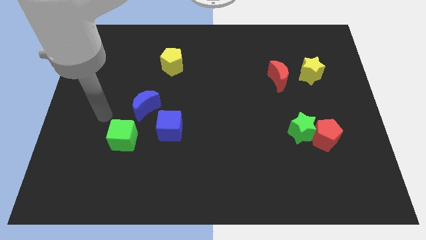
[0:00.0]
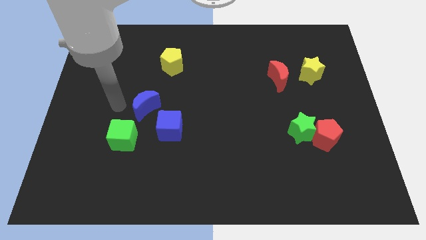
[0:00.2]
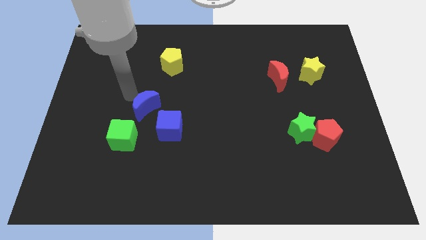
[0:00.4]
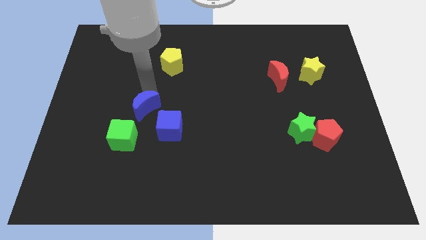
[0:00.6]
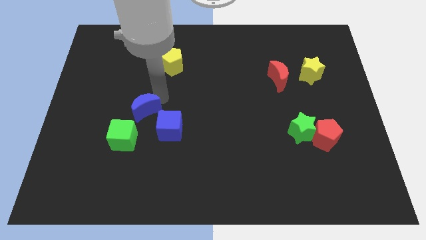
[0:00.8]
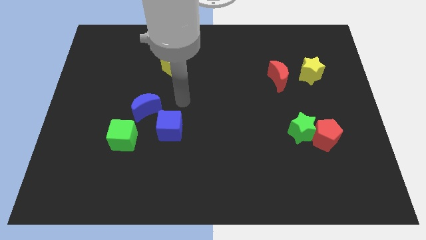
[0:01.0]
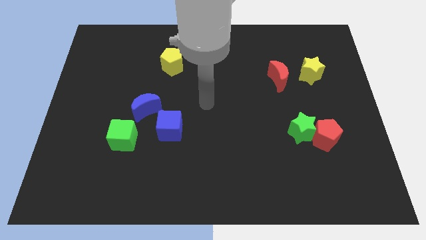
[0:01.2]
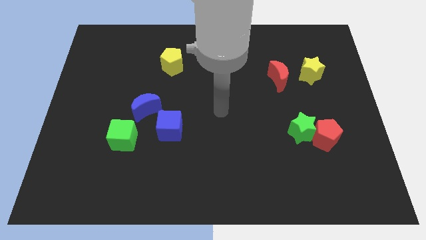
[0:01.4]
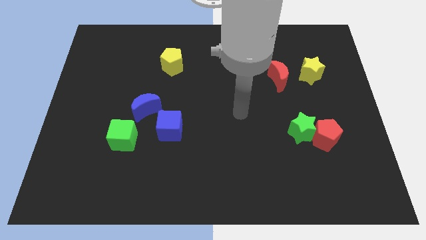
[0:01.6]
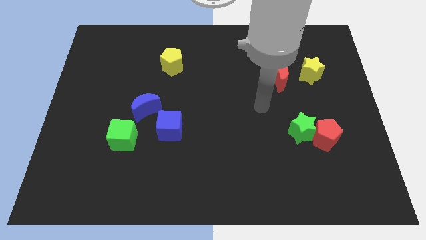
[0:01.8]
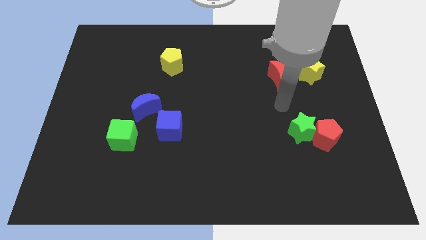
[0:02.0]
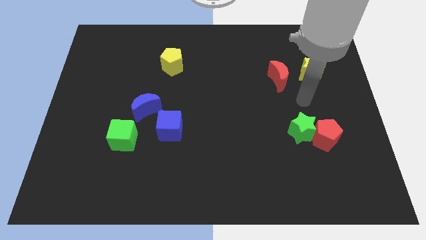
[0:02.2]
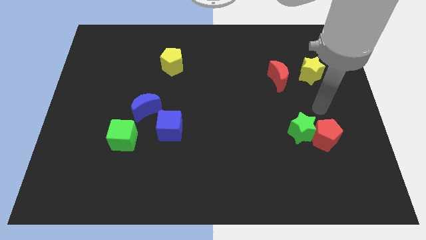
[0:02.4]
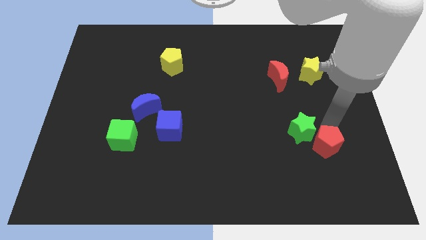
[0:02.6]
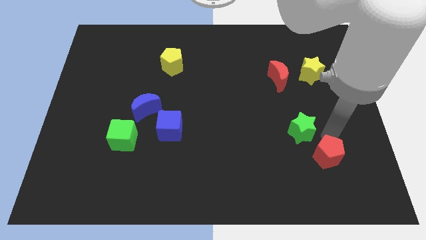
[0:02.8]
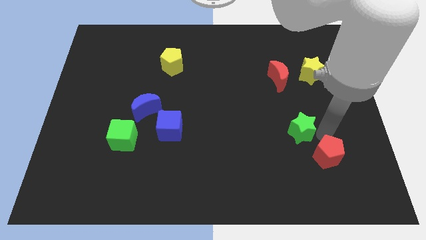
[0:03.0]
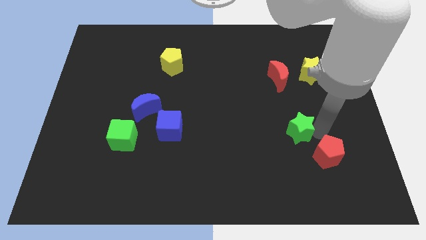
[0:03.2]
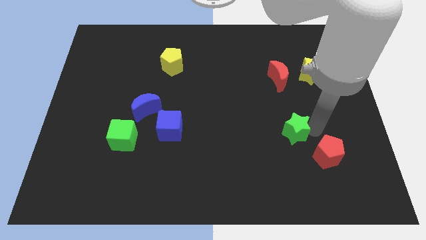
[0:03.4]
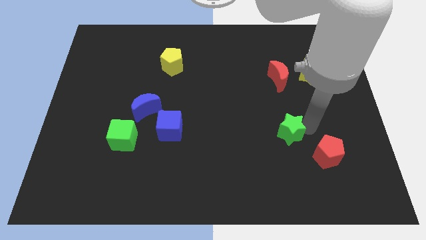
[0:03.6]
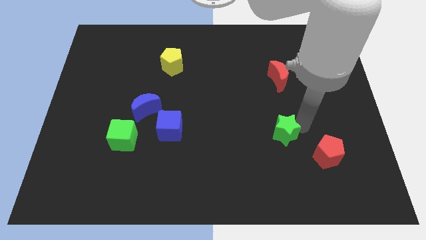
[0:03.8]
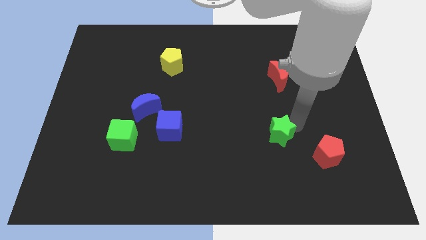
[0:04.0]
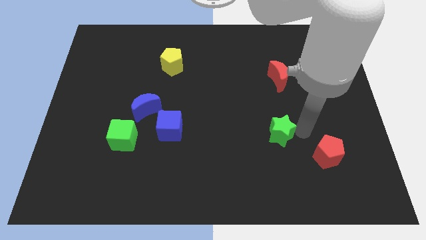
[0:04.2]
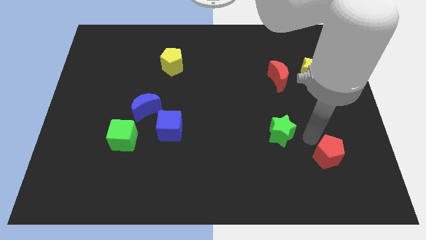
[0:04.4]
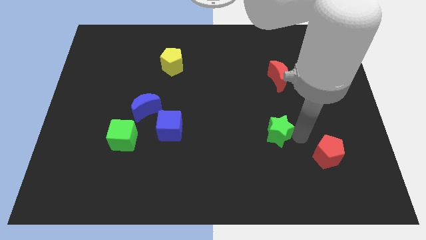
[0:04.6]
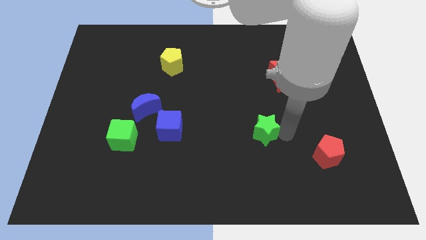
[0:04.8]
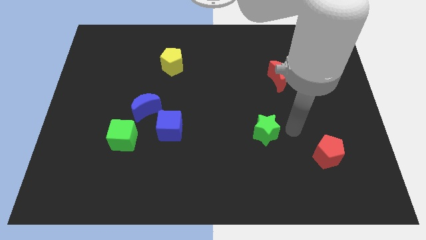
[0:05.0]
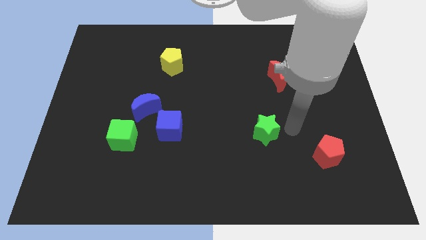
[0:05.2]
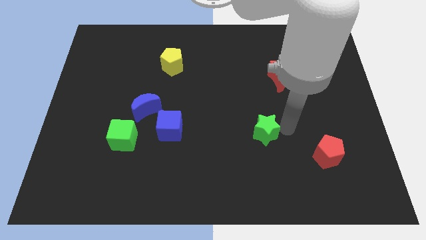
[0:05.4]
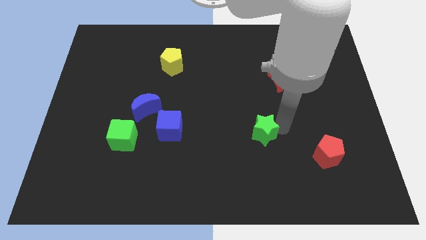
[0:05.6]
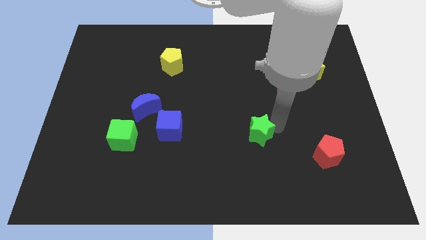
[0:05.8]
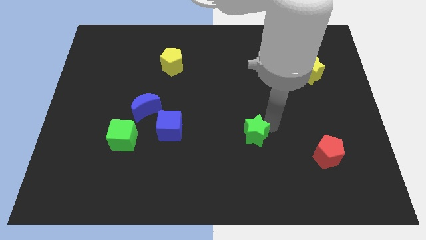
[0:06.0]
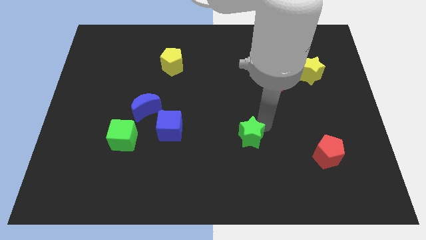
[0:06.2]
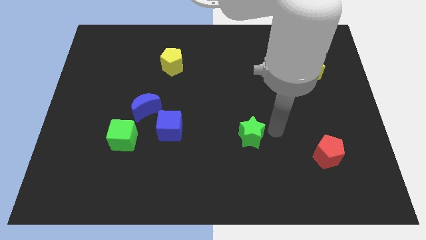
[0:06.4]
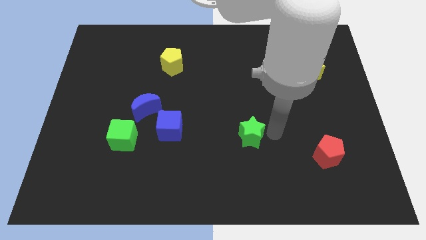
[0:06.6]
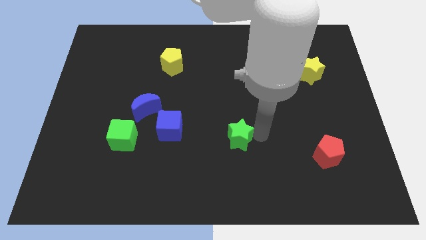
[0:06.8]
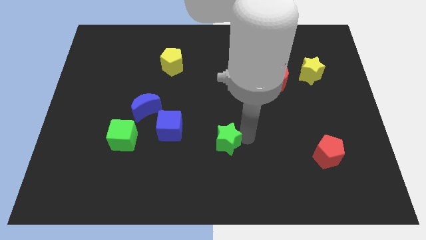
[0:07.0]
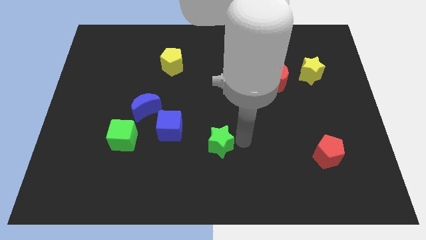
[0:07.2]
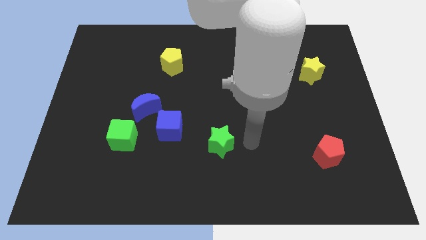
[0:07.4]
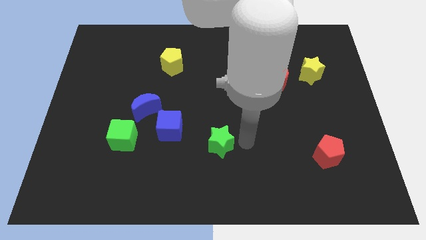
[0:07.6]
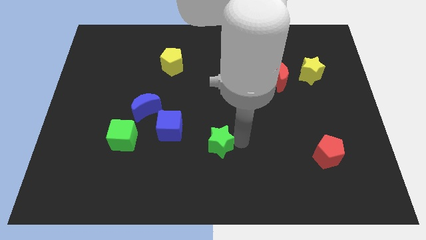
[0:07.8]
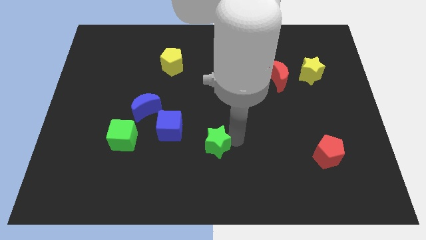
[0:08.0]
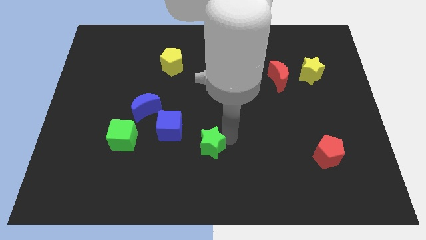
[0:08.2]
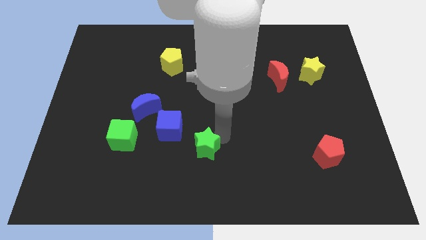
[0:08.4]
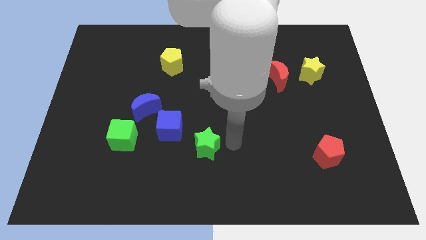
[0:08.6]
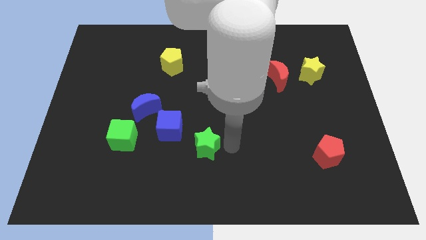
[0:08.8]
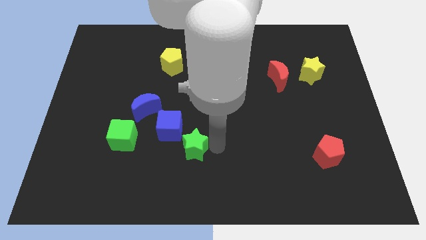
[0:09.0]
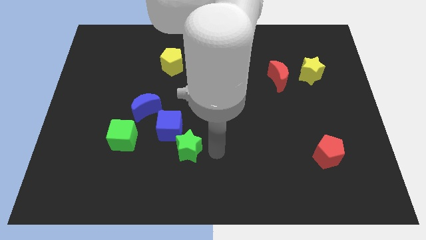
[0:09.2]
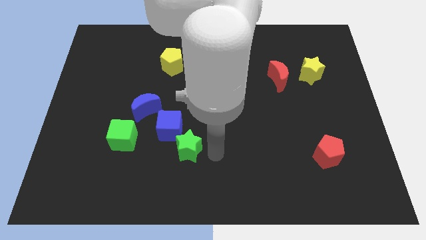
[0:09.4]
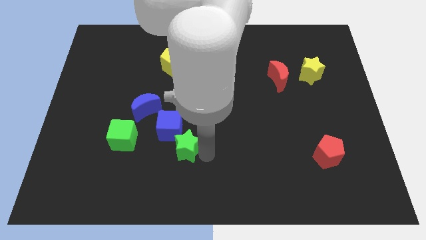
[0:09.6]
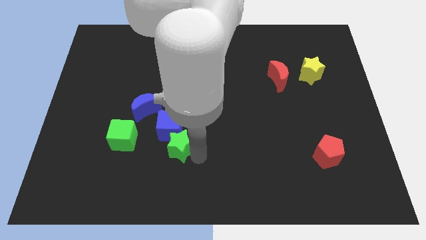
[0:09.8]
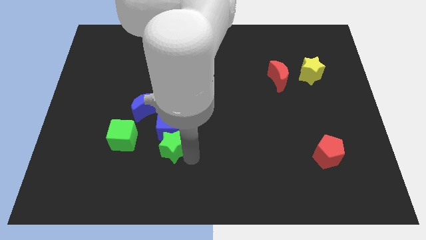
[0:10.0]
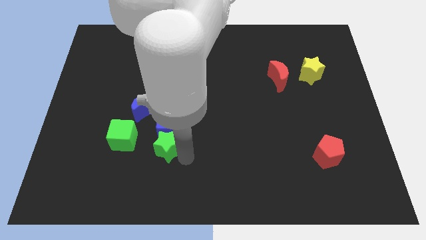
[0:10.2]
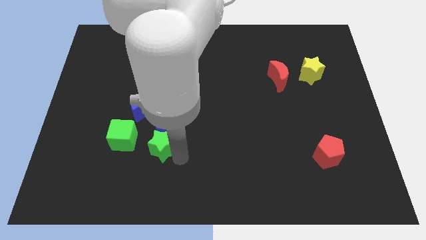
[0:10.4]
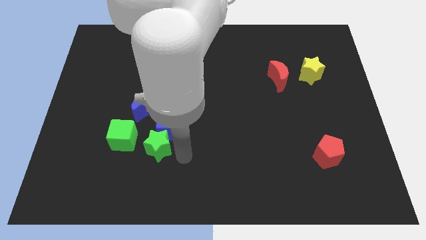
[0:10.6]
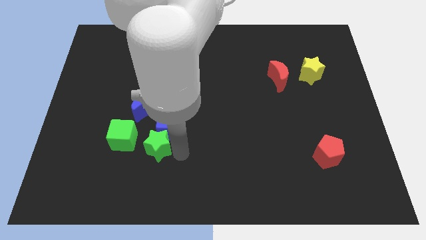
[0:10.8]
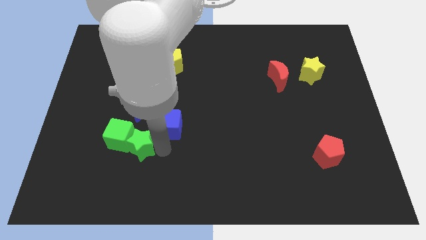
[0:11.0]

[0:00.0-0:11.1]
push the green star towards the green cube

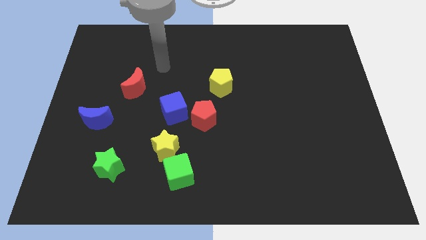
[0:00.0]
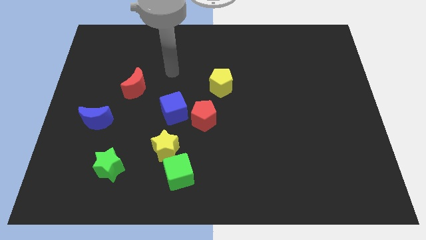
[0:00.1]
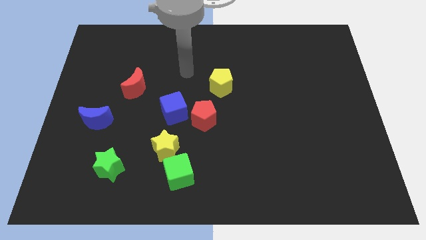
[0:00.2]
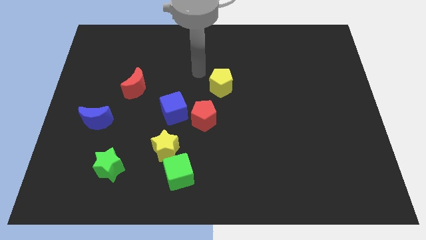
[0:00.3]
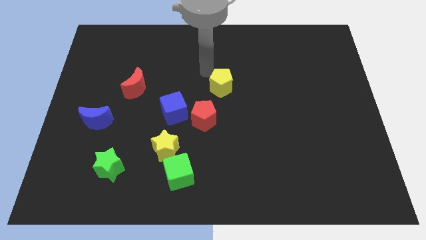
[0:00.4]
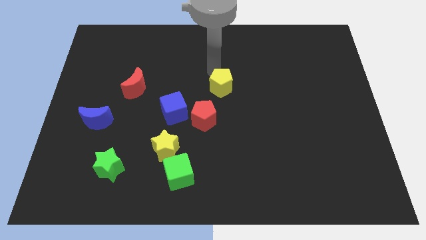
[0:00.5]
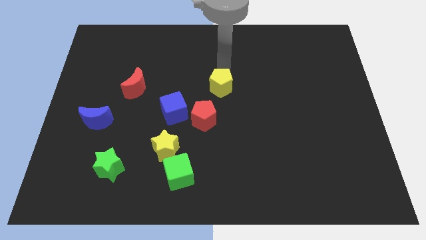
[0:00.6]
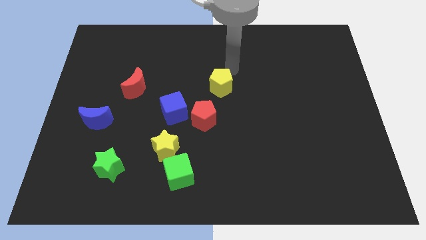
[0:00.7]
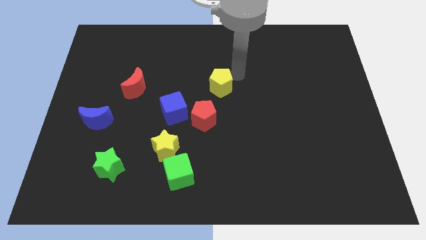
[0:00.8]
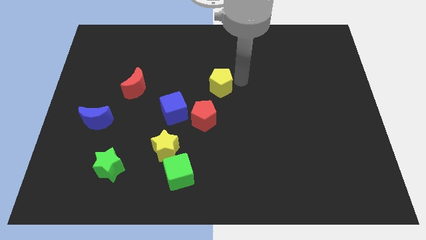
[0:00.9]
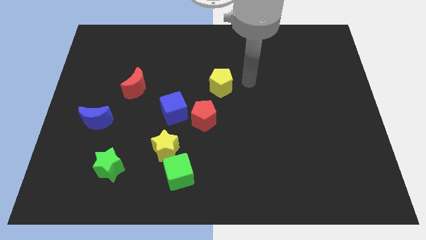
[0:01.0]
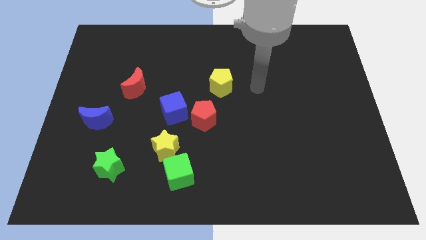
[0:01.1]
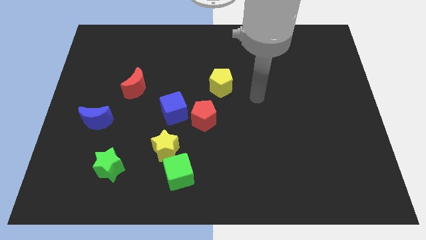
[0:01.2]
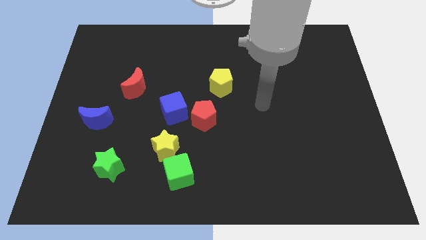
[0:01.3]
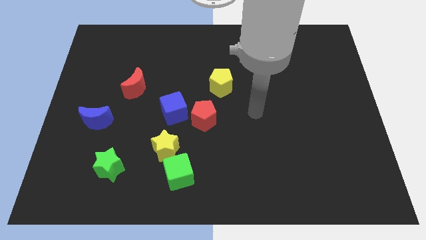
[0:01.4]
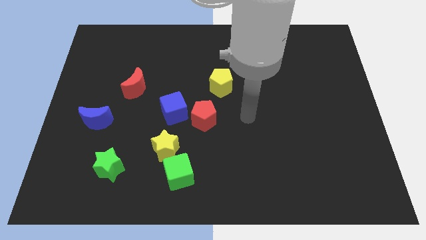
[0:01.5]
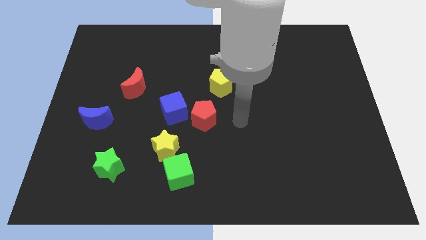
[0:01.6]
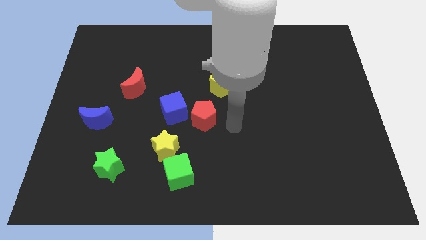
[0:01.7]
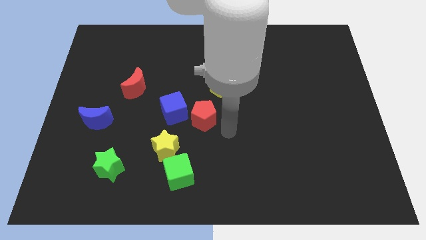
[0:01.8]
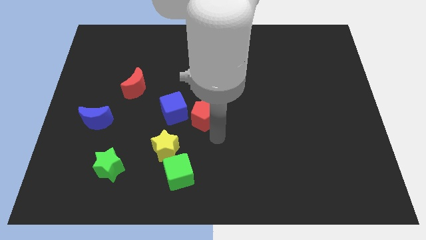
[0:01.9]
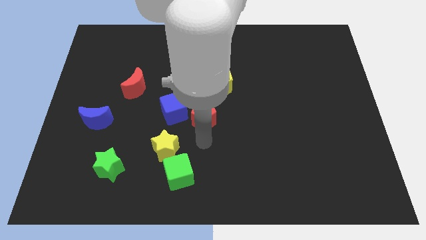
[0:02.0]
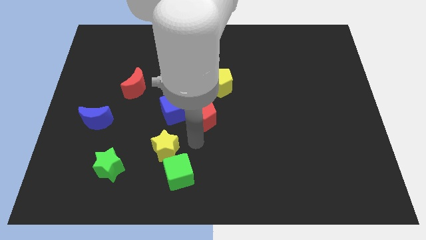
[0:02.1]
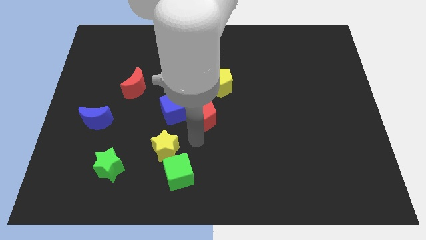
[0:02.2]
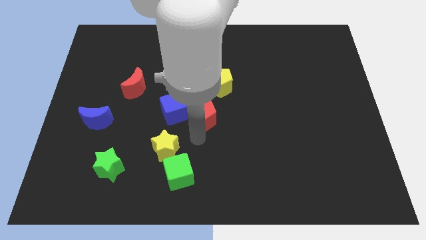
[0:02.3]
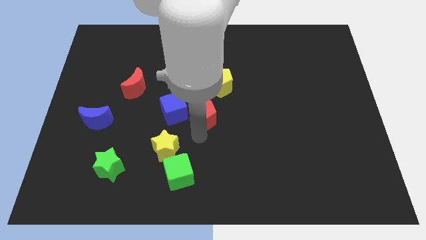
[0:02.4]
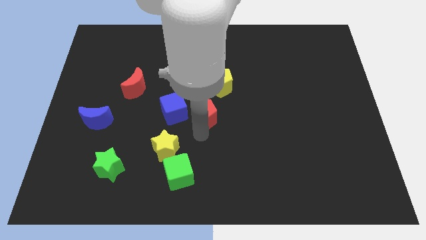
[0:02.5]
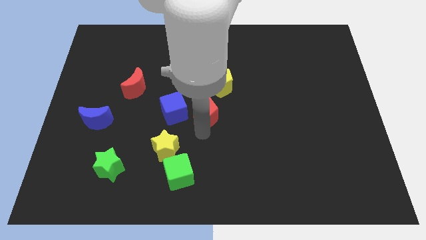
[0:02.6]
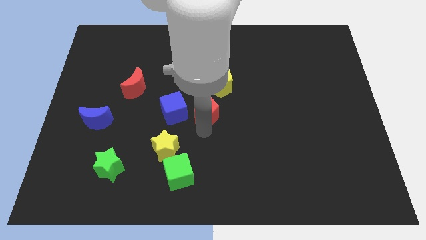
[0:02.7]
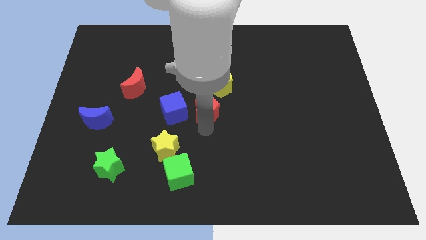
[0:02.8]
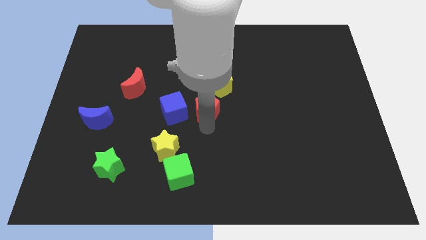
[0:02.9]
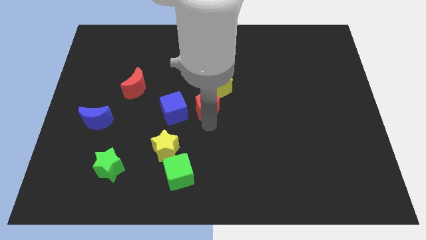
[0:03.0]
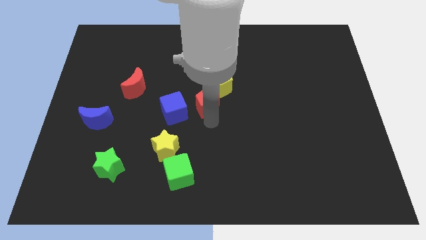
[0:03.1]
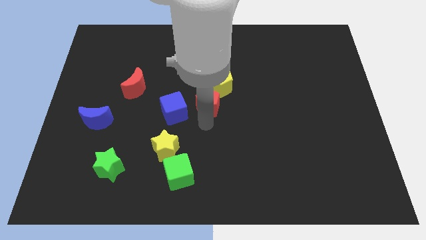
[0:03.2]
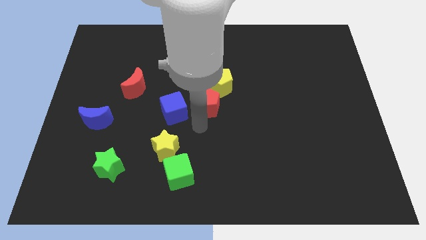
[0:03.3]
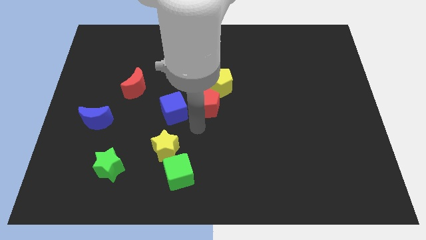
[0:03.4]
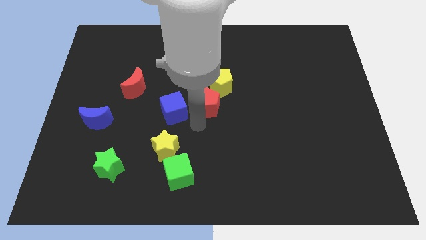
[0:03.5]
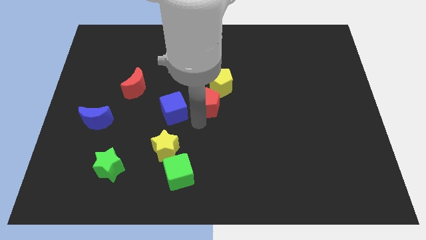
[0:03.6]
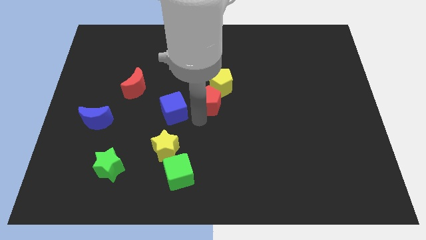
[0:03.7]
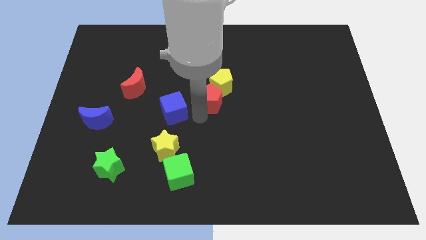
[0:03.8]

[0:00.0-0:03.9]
push the red pentagon to the yellow pentagon
